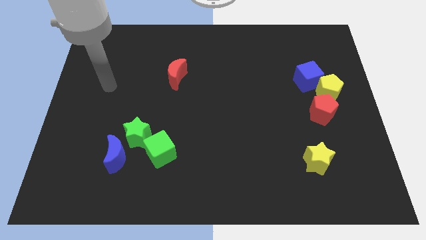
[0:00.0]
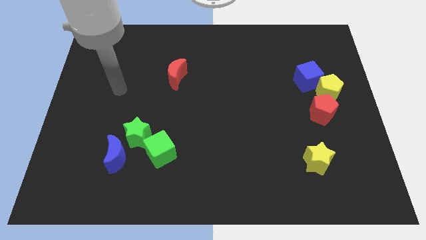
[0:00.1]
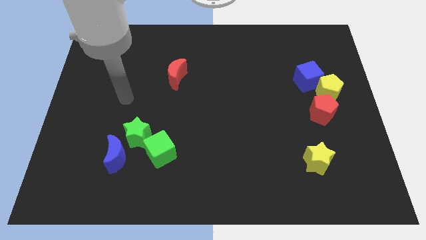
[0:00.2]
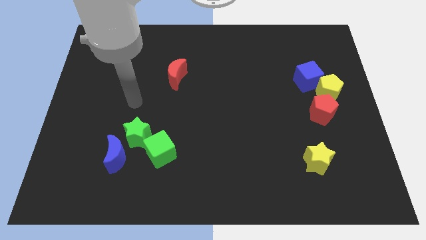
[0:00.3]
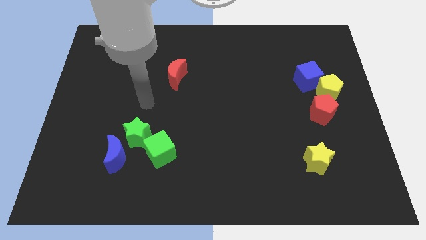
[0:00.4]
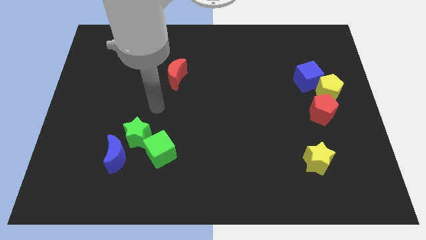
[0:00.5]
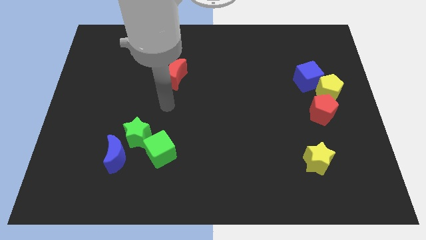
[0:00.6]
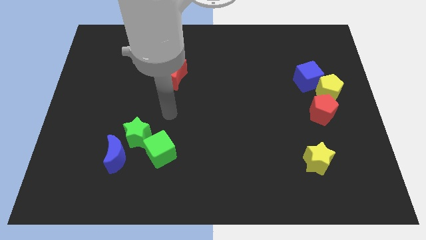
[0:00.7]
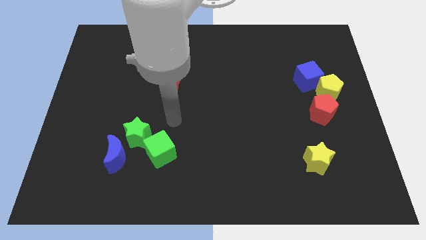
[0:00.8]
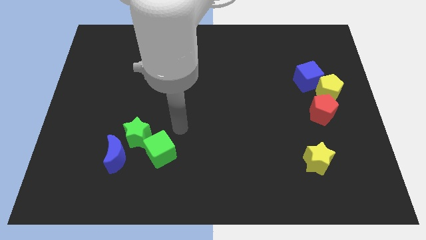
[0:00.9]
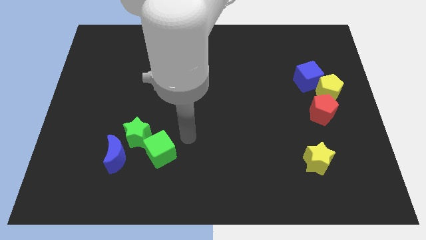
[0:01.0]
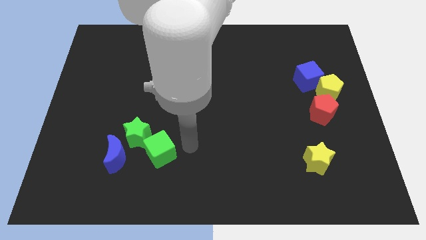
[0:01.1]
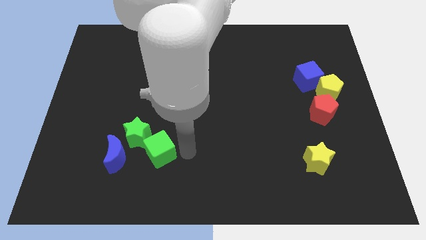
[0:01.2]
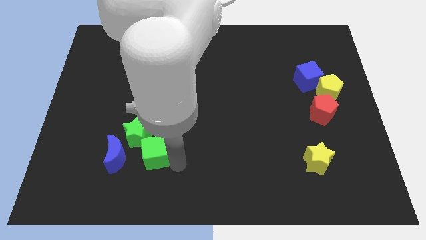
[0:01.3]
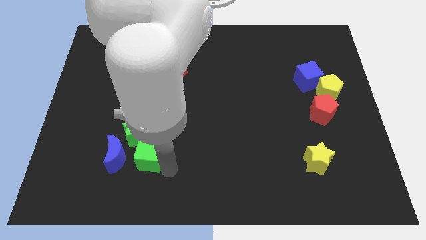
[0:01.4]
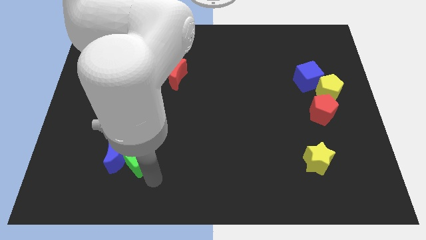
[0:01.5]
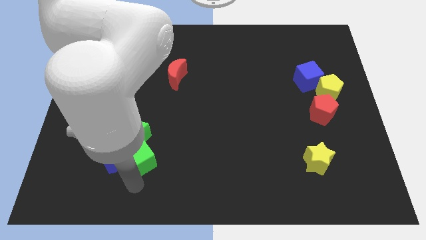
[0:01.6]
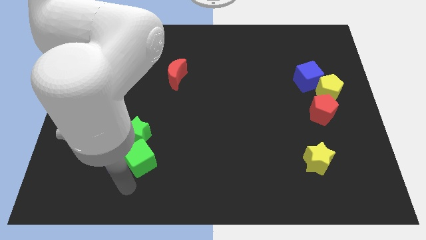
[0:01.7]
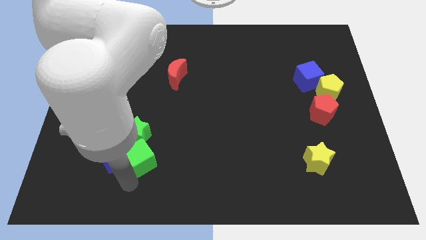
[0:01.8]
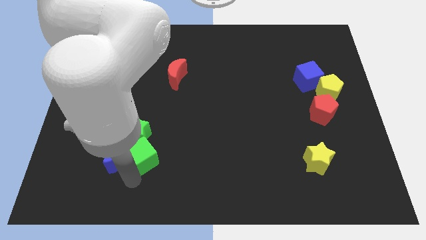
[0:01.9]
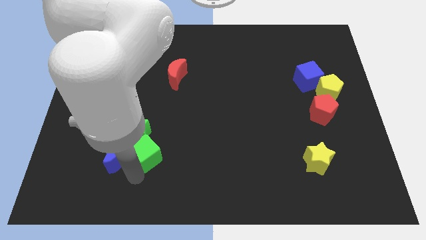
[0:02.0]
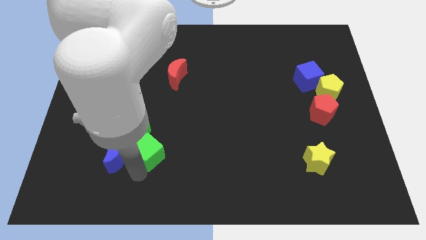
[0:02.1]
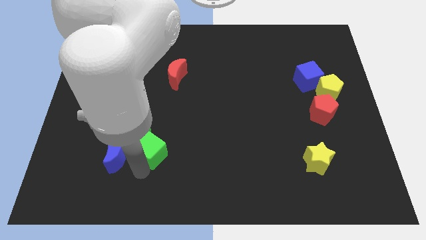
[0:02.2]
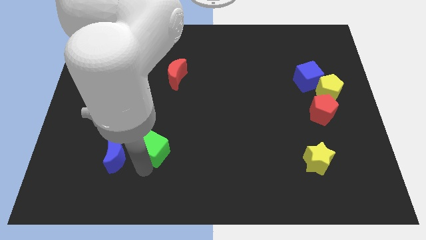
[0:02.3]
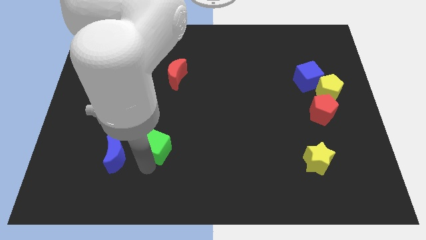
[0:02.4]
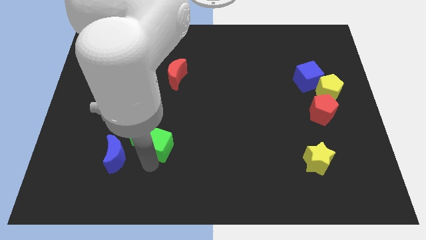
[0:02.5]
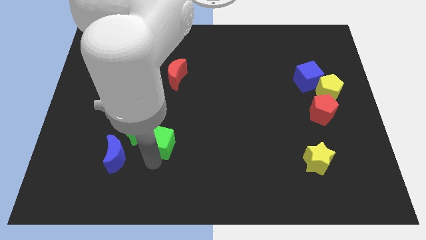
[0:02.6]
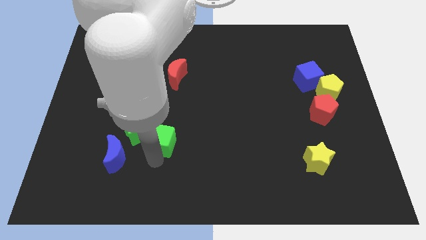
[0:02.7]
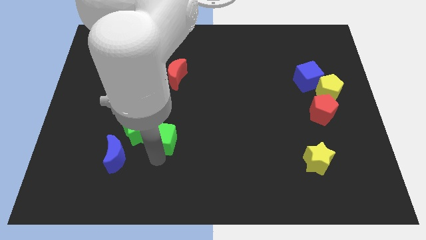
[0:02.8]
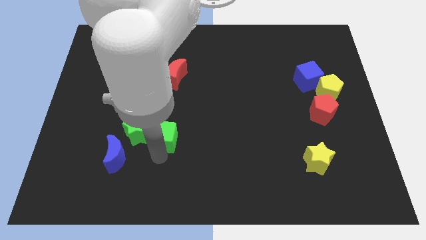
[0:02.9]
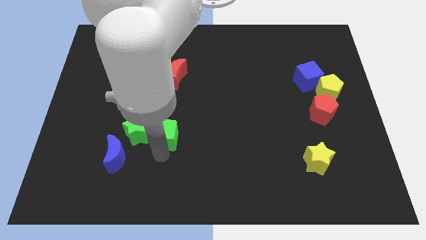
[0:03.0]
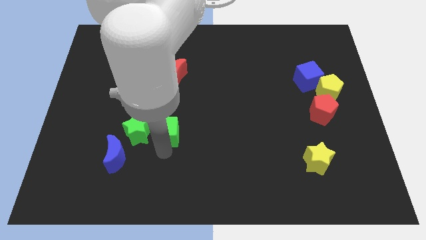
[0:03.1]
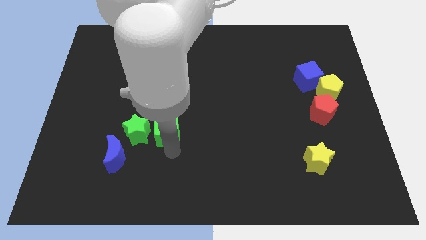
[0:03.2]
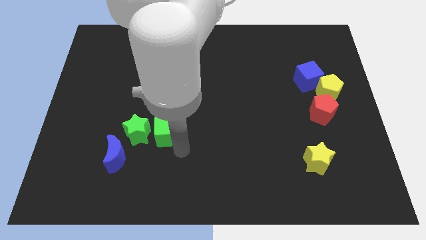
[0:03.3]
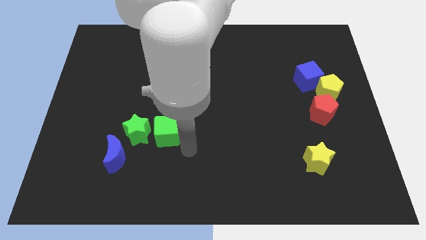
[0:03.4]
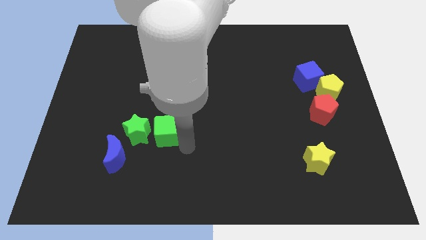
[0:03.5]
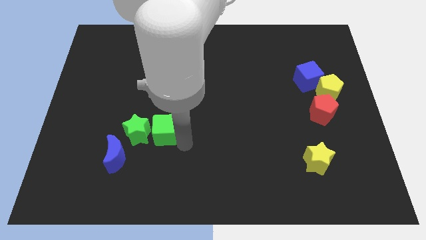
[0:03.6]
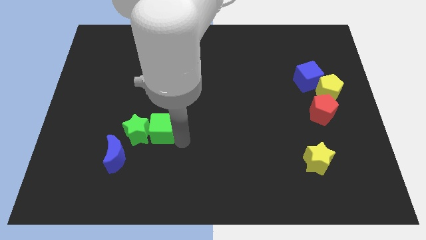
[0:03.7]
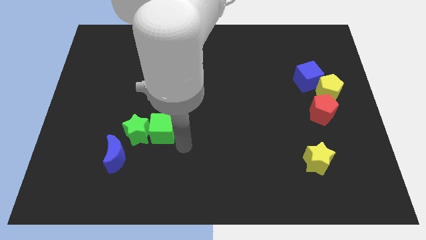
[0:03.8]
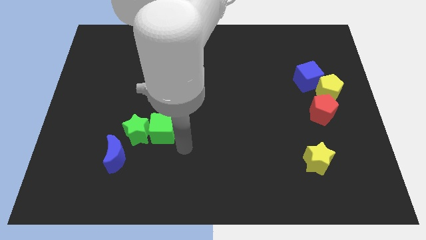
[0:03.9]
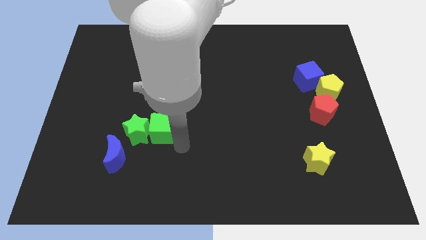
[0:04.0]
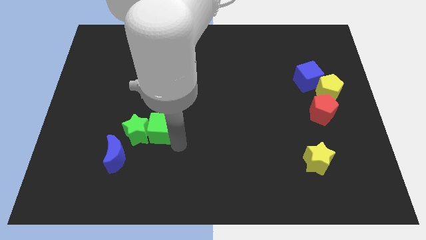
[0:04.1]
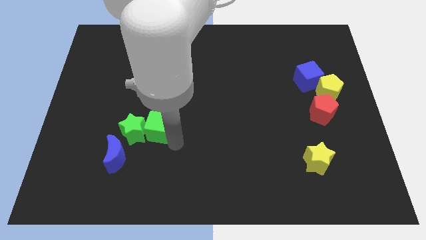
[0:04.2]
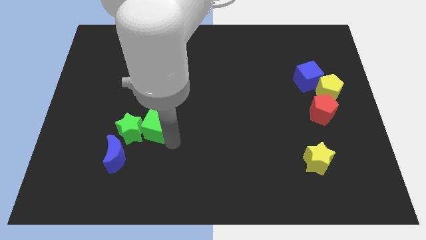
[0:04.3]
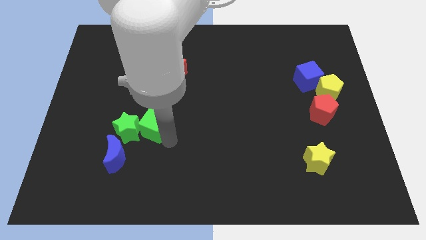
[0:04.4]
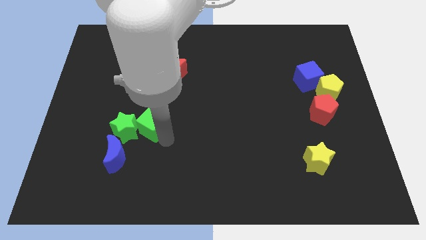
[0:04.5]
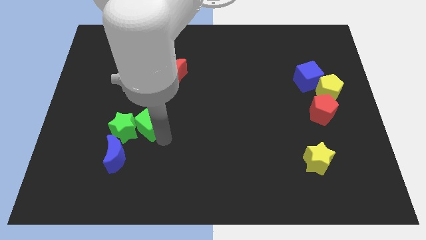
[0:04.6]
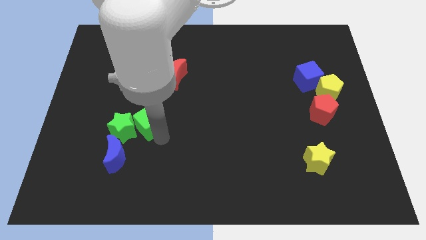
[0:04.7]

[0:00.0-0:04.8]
slightly move the green cube diagonally up and to the left

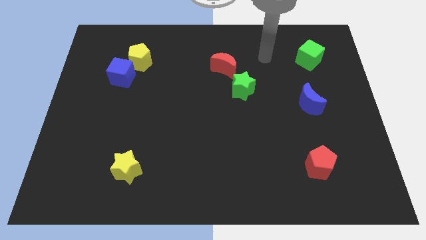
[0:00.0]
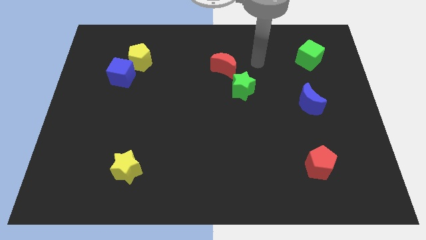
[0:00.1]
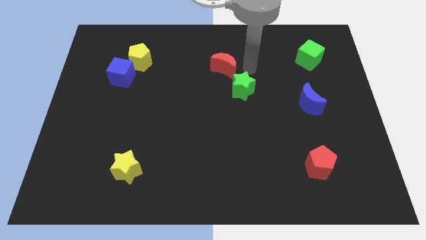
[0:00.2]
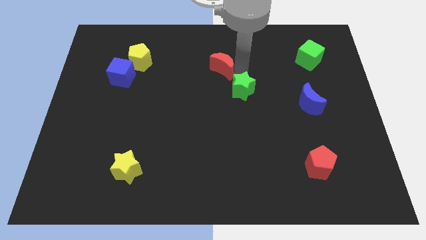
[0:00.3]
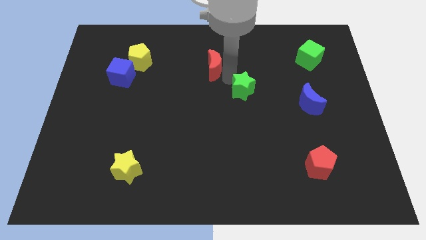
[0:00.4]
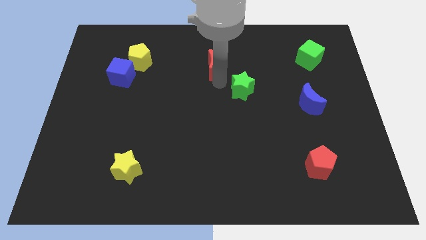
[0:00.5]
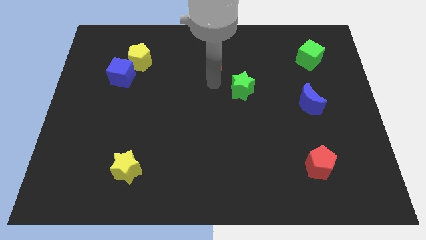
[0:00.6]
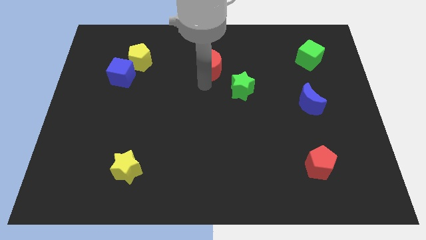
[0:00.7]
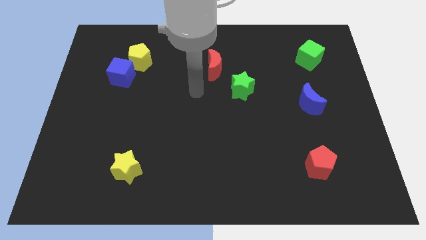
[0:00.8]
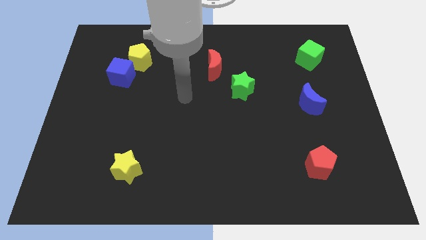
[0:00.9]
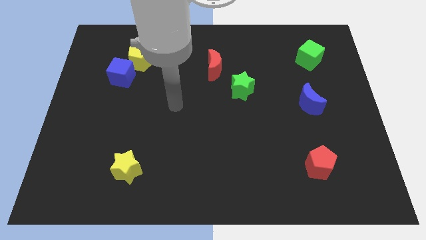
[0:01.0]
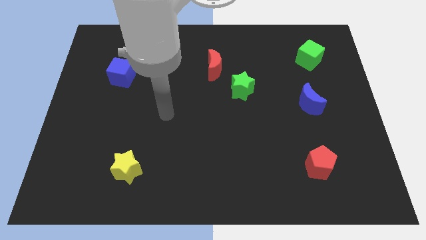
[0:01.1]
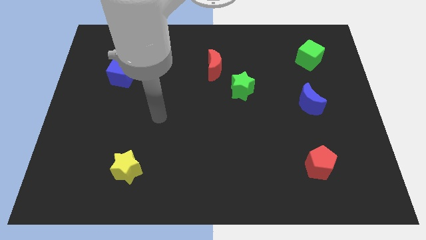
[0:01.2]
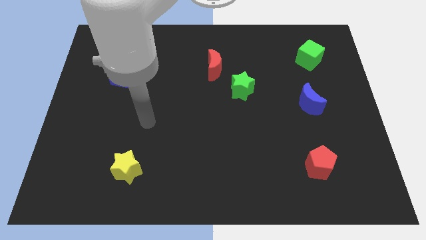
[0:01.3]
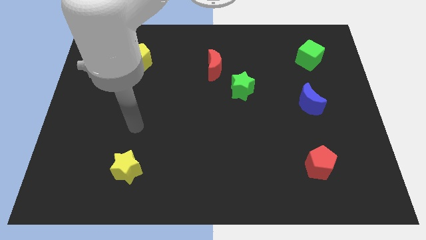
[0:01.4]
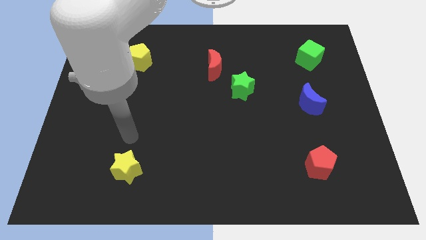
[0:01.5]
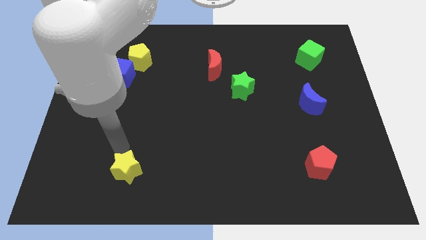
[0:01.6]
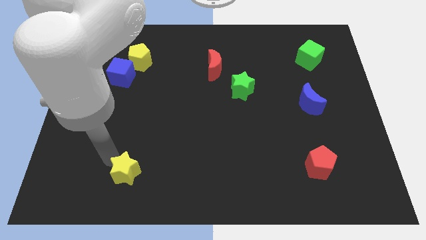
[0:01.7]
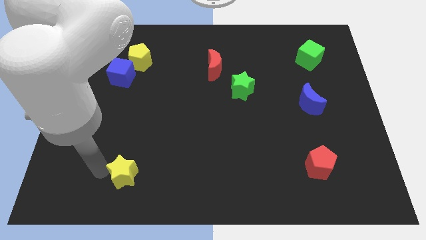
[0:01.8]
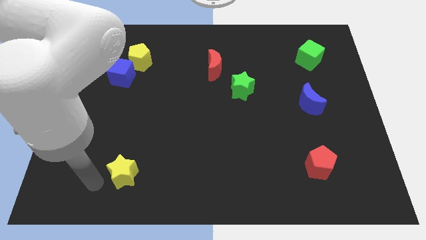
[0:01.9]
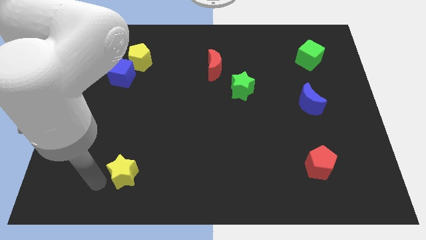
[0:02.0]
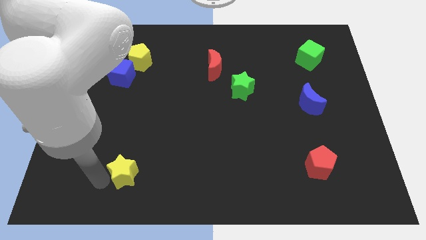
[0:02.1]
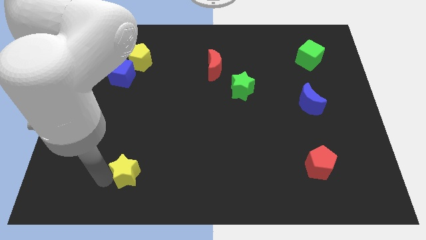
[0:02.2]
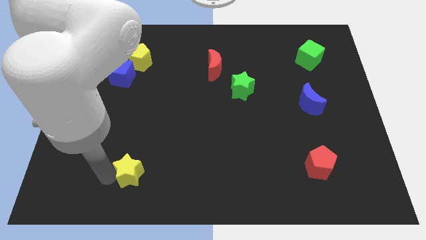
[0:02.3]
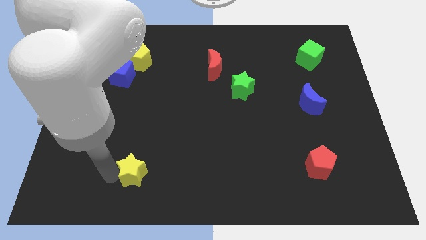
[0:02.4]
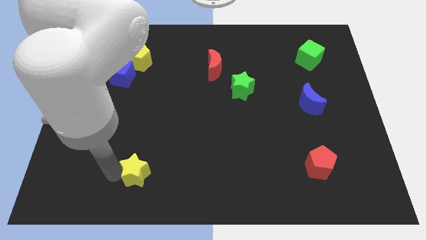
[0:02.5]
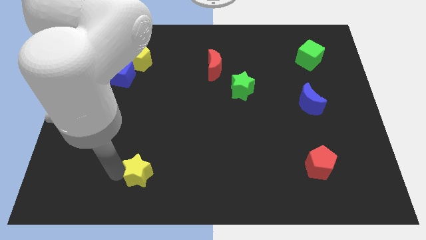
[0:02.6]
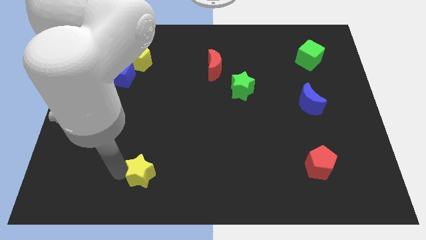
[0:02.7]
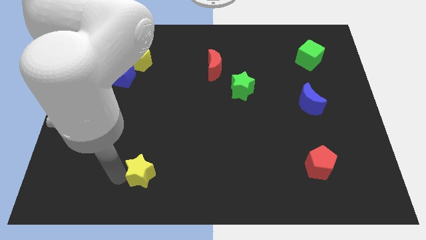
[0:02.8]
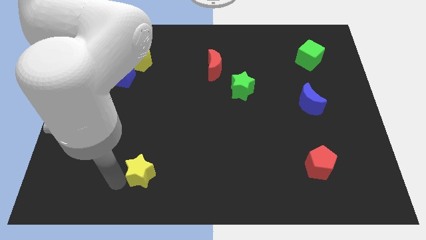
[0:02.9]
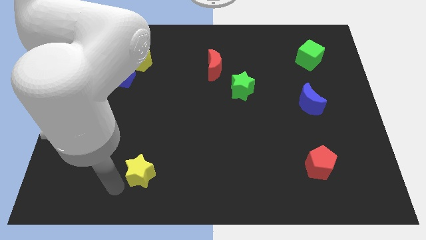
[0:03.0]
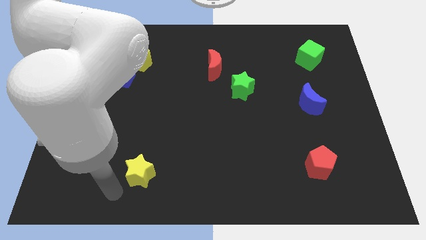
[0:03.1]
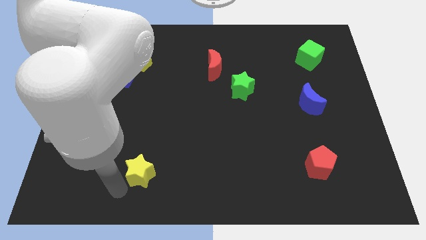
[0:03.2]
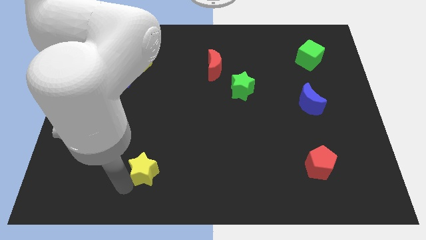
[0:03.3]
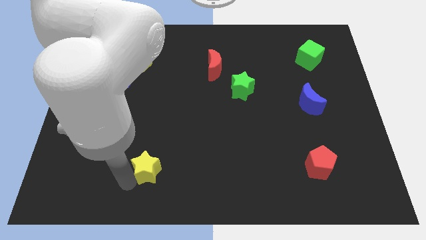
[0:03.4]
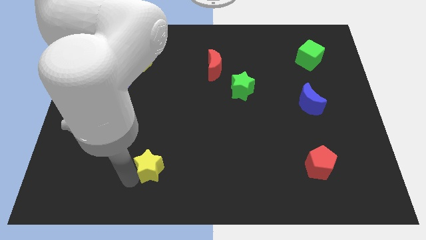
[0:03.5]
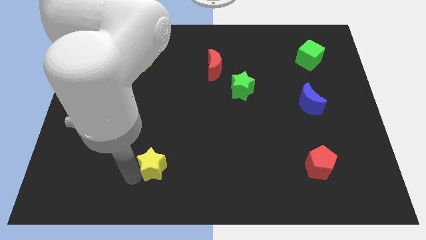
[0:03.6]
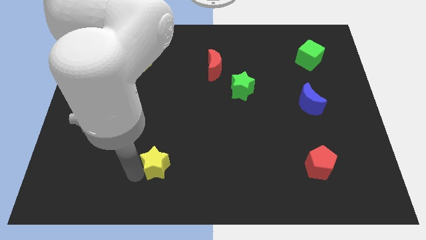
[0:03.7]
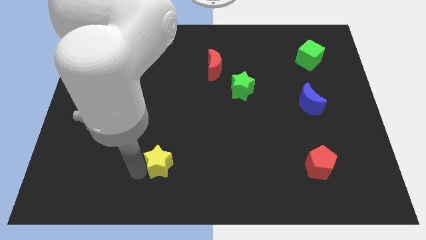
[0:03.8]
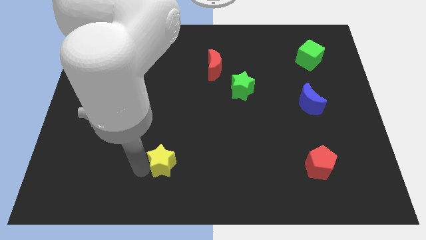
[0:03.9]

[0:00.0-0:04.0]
move the yellow star a bit to the right
